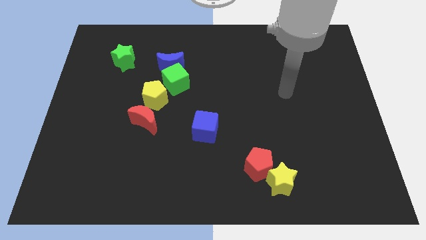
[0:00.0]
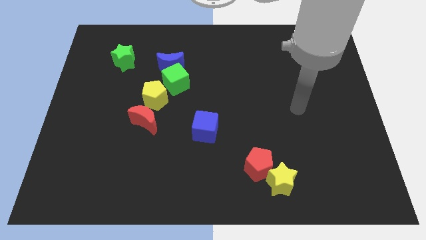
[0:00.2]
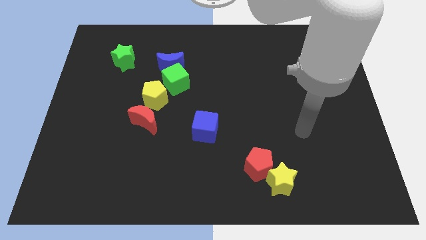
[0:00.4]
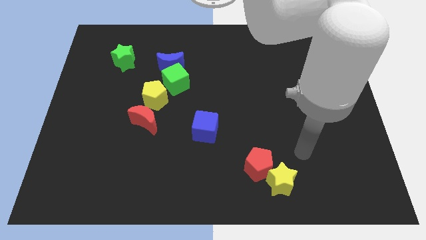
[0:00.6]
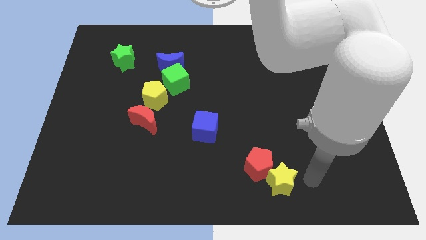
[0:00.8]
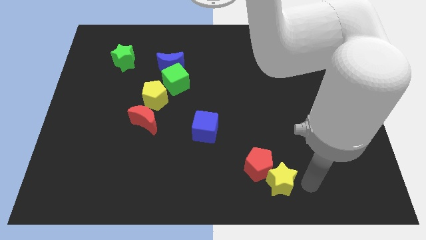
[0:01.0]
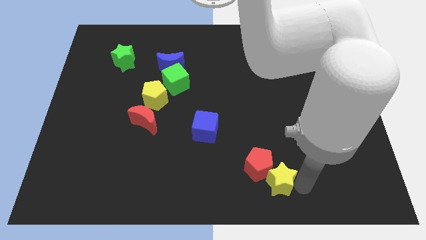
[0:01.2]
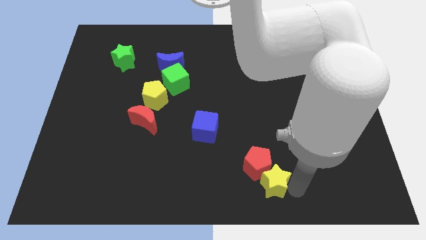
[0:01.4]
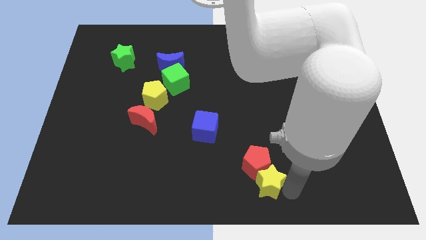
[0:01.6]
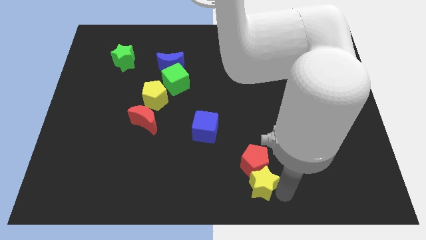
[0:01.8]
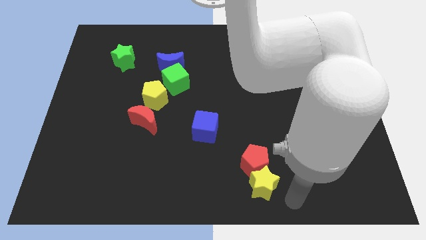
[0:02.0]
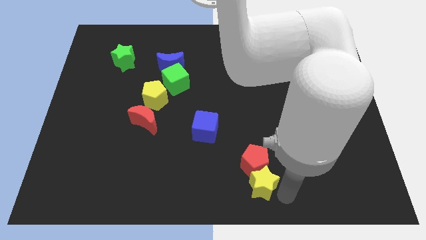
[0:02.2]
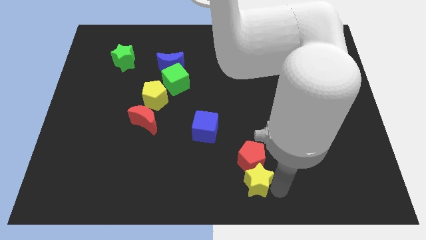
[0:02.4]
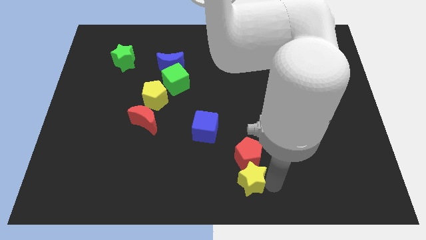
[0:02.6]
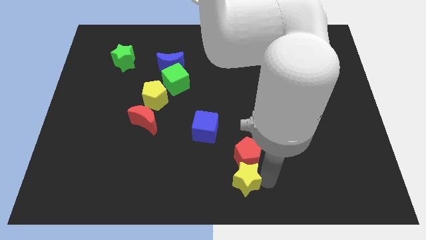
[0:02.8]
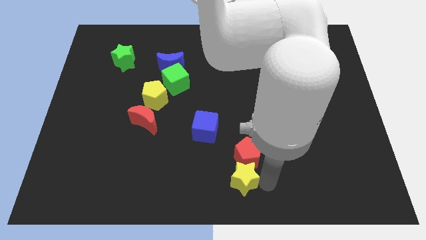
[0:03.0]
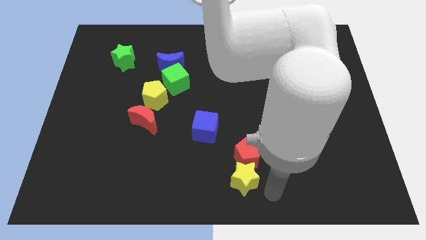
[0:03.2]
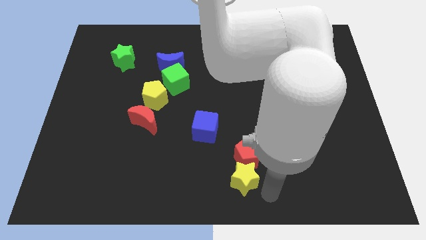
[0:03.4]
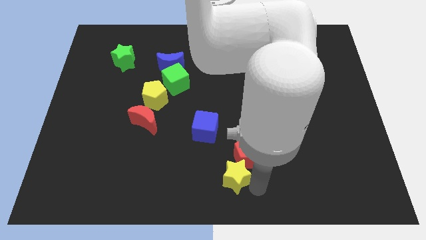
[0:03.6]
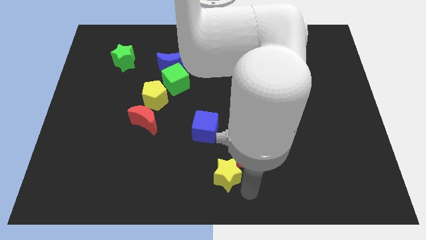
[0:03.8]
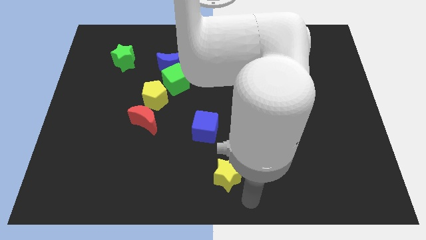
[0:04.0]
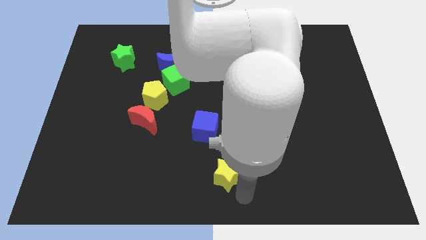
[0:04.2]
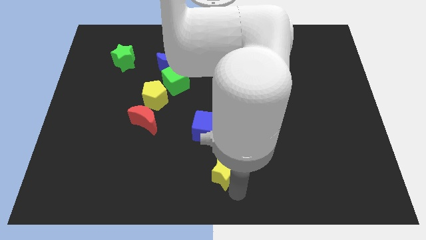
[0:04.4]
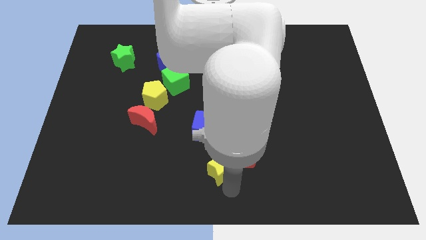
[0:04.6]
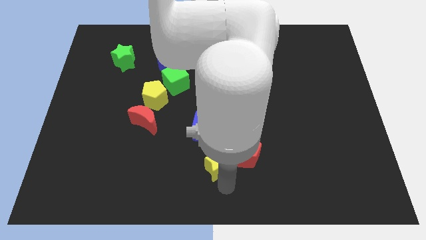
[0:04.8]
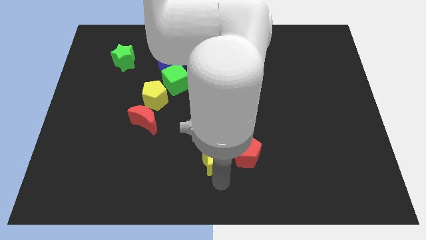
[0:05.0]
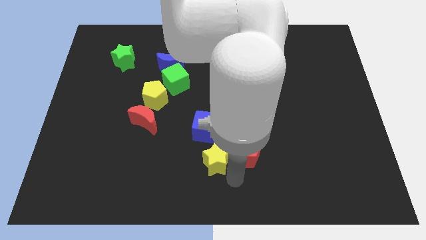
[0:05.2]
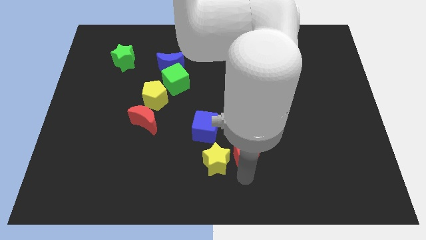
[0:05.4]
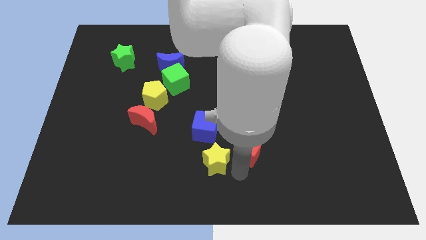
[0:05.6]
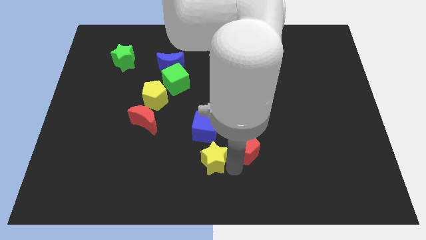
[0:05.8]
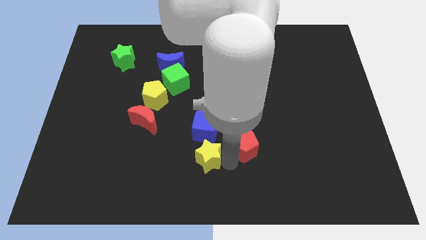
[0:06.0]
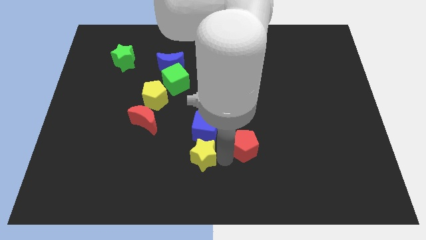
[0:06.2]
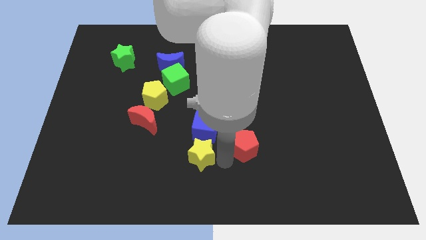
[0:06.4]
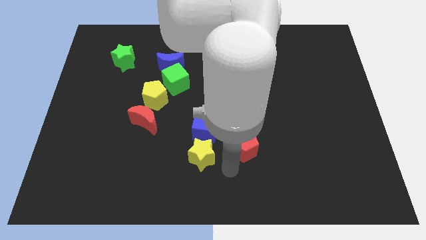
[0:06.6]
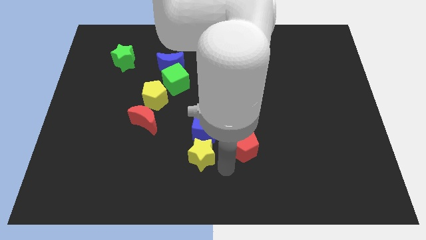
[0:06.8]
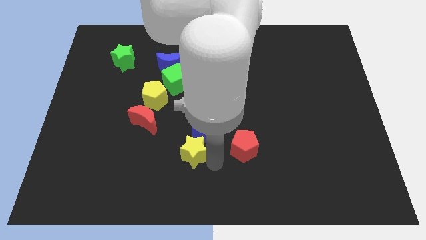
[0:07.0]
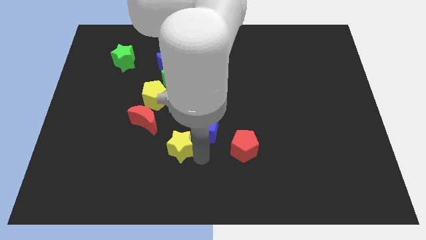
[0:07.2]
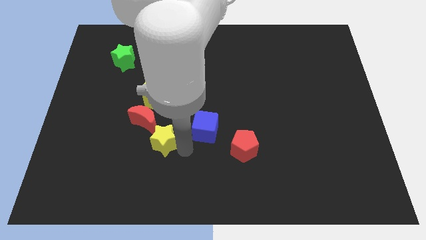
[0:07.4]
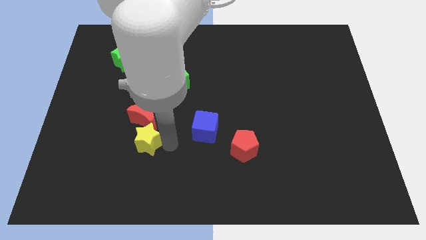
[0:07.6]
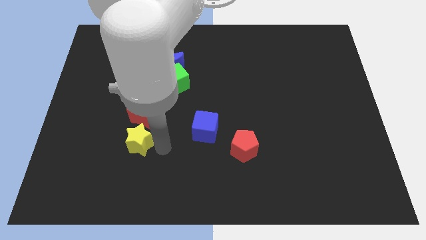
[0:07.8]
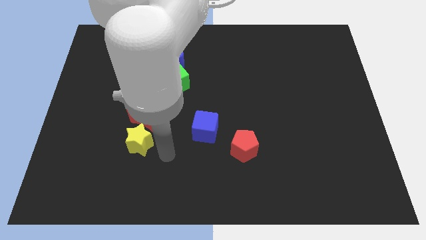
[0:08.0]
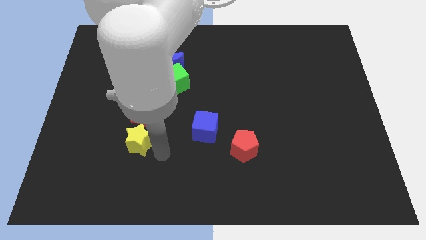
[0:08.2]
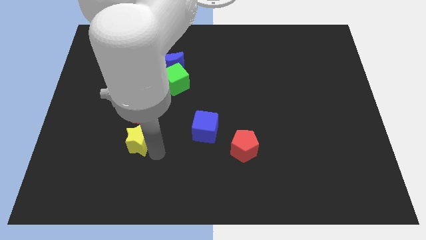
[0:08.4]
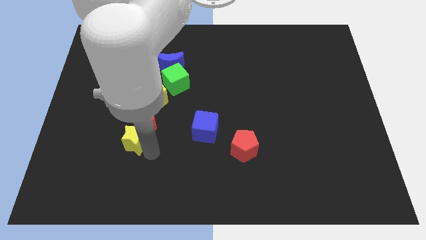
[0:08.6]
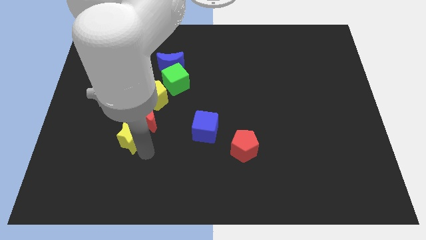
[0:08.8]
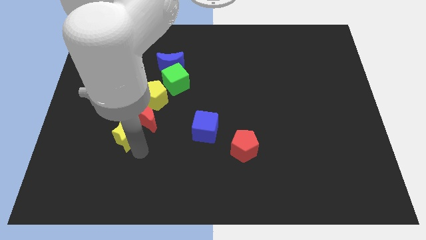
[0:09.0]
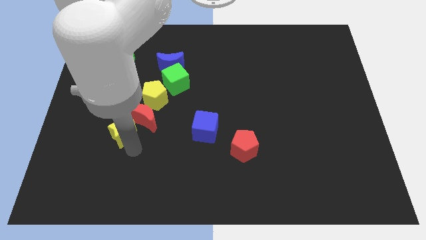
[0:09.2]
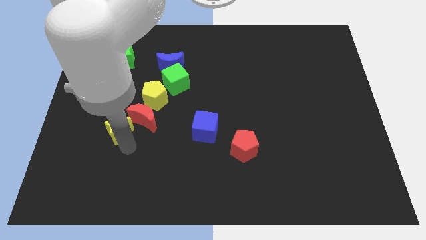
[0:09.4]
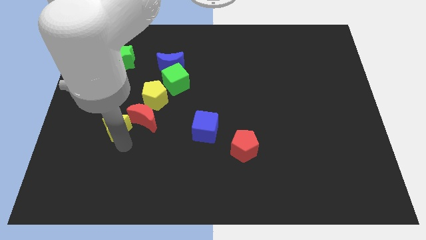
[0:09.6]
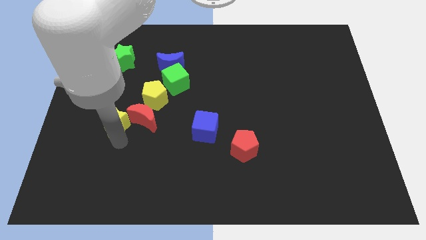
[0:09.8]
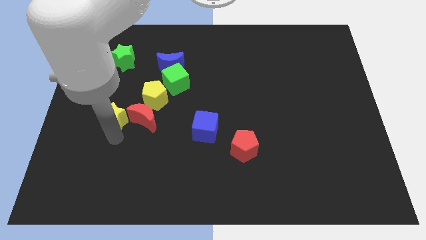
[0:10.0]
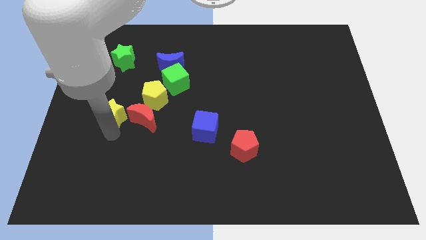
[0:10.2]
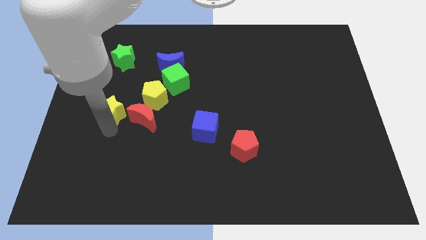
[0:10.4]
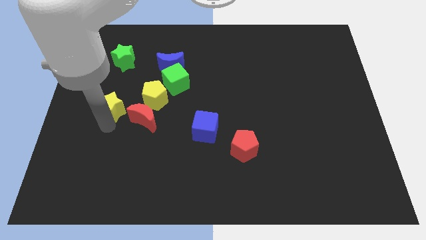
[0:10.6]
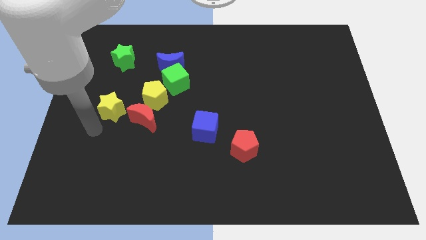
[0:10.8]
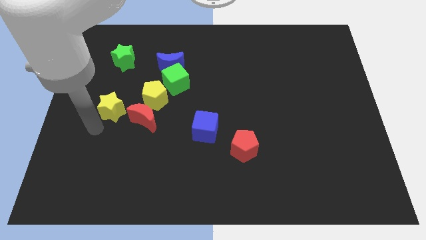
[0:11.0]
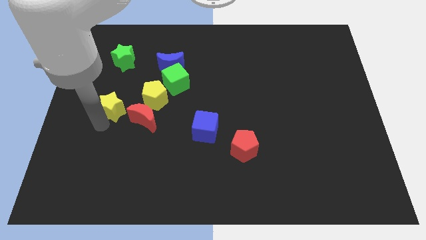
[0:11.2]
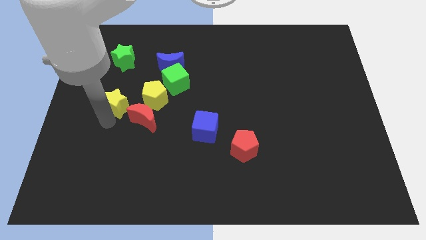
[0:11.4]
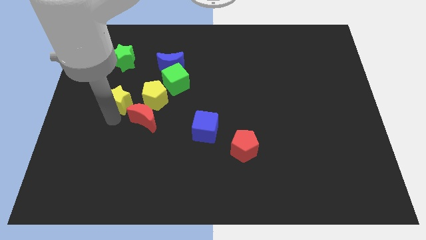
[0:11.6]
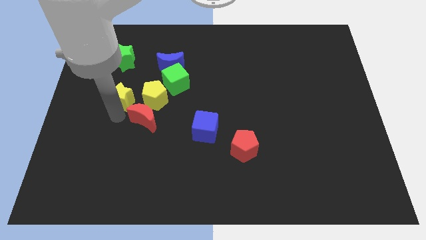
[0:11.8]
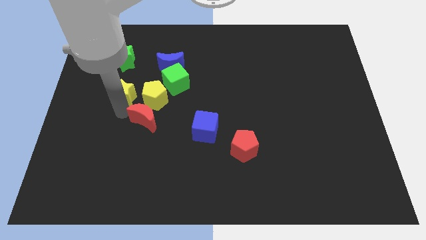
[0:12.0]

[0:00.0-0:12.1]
put the yellow star to the top left of the yellow pentagon
